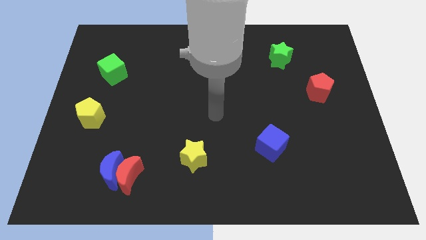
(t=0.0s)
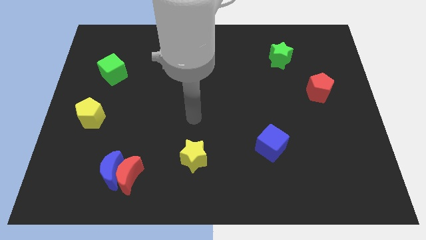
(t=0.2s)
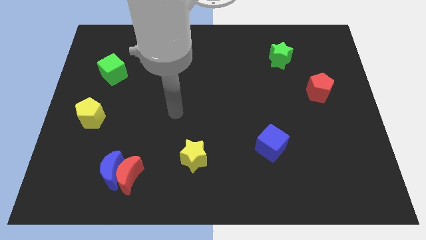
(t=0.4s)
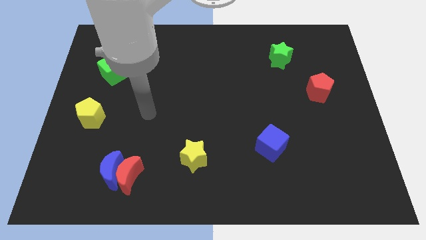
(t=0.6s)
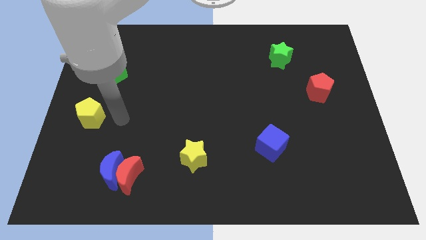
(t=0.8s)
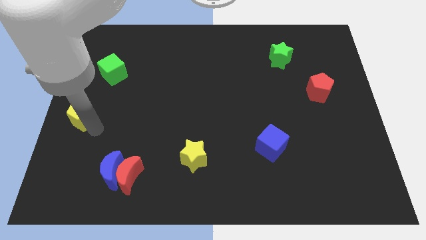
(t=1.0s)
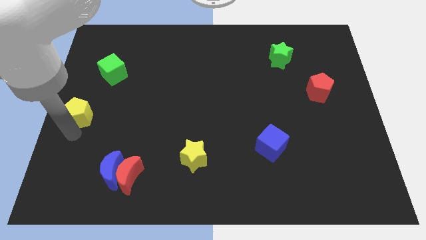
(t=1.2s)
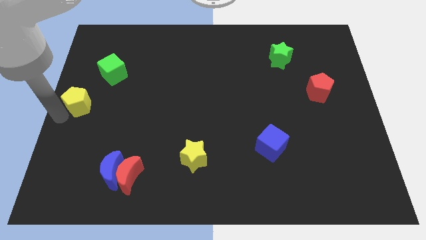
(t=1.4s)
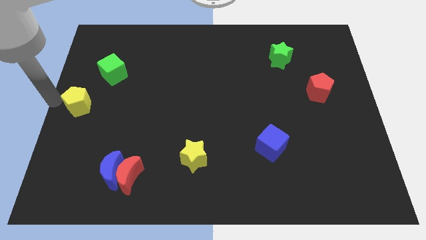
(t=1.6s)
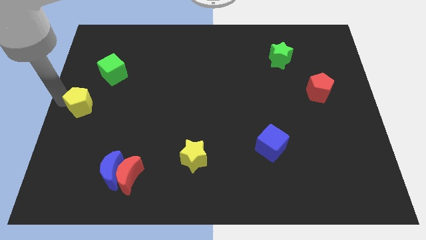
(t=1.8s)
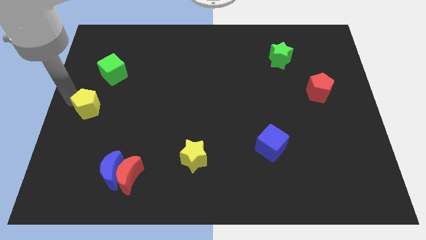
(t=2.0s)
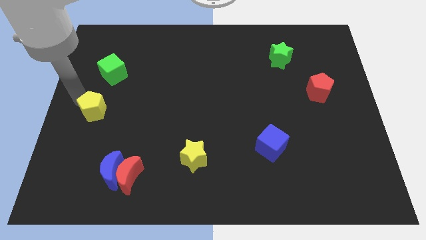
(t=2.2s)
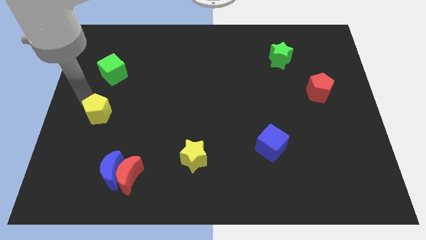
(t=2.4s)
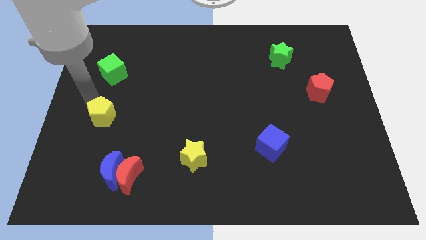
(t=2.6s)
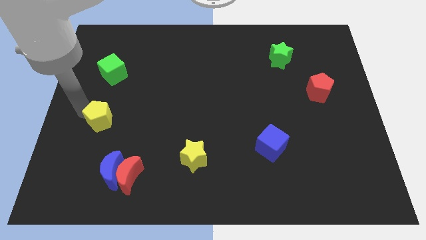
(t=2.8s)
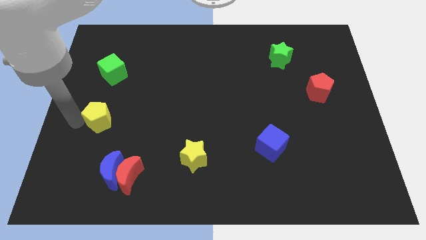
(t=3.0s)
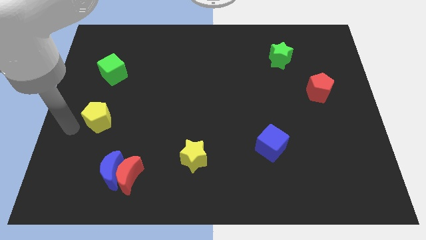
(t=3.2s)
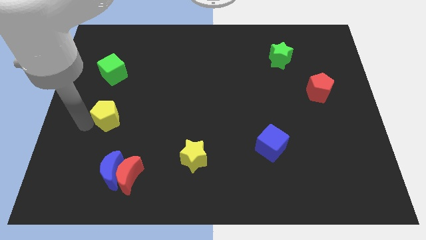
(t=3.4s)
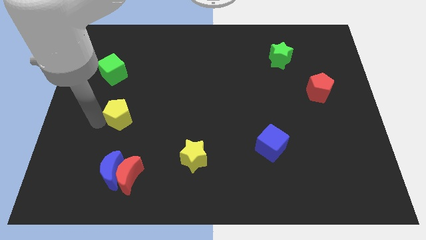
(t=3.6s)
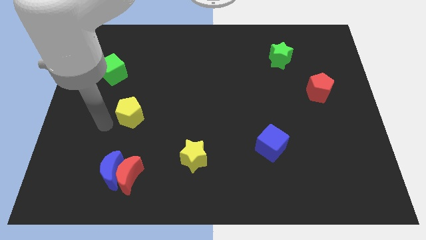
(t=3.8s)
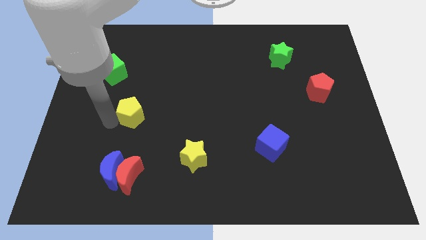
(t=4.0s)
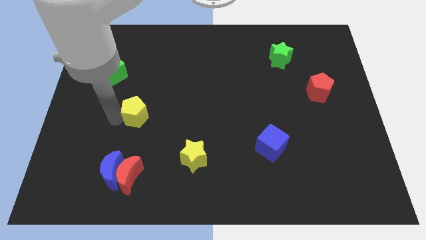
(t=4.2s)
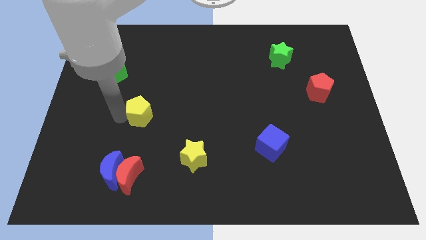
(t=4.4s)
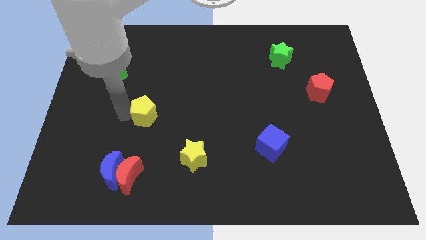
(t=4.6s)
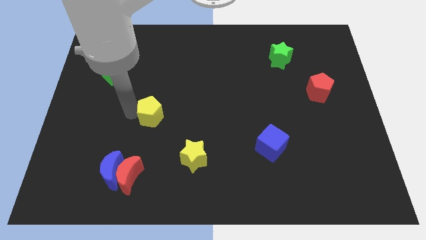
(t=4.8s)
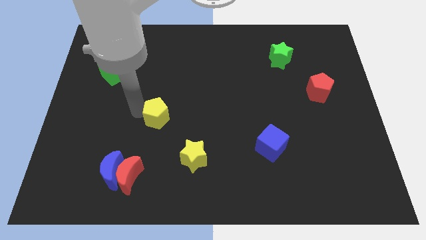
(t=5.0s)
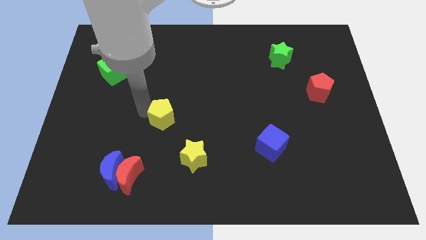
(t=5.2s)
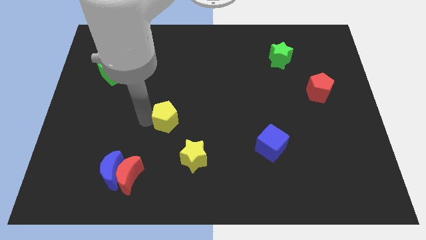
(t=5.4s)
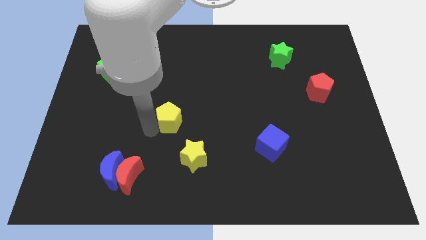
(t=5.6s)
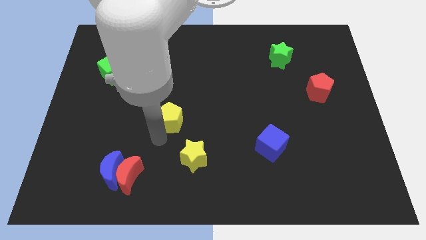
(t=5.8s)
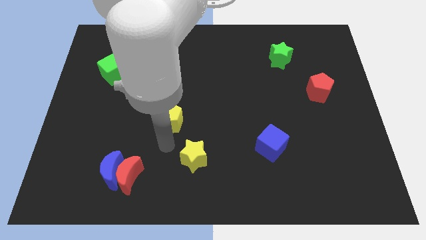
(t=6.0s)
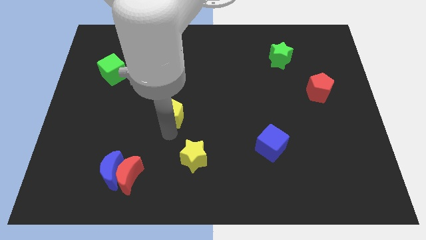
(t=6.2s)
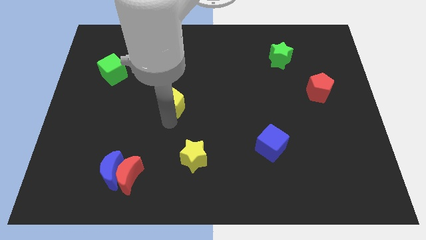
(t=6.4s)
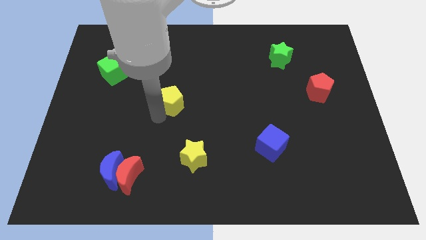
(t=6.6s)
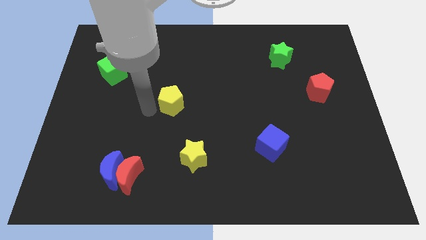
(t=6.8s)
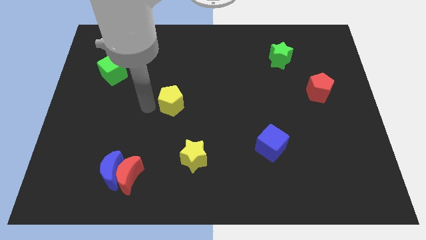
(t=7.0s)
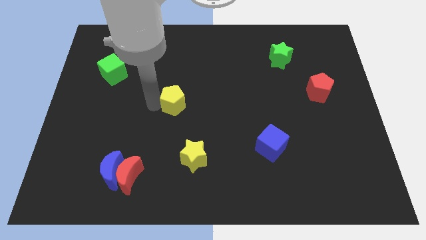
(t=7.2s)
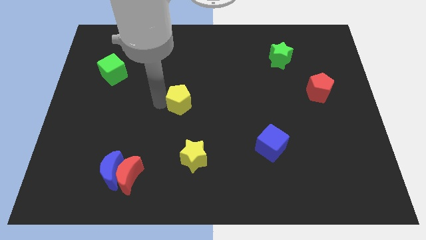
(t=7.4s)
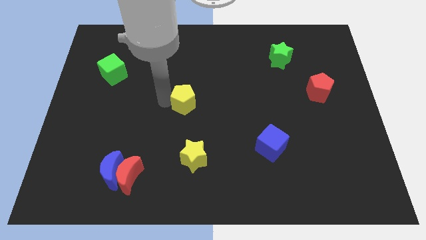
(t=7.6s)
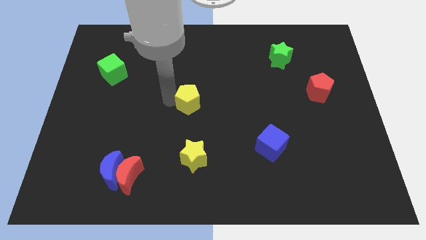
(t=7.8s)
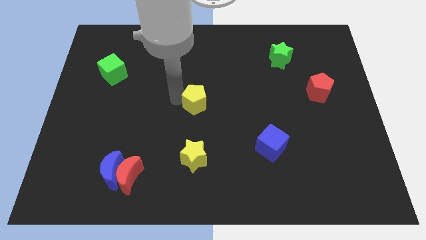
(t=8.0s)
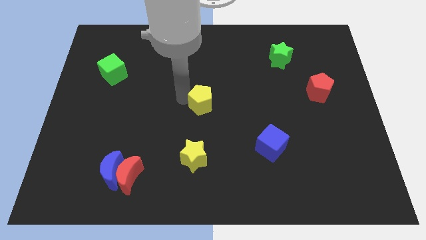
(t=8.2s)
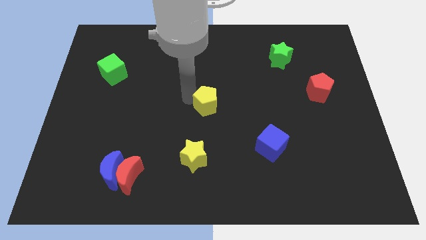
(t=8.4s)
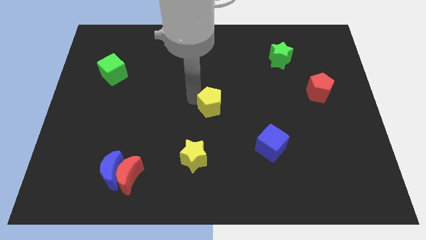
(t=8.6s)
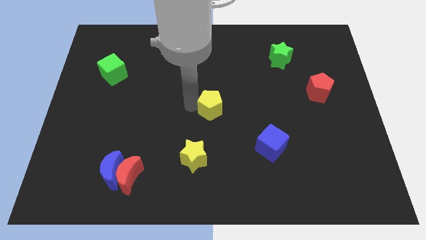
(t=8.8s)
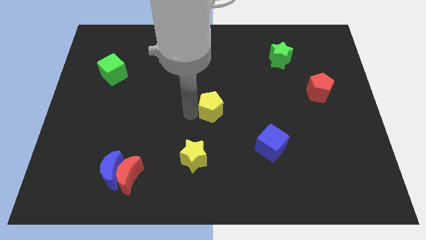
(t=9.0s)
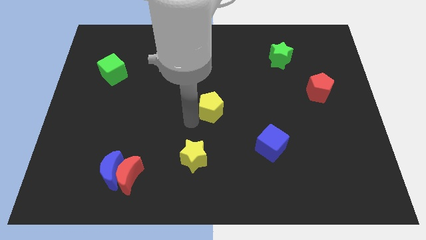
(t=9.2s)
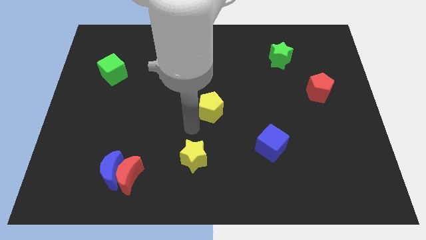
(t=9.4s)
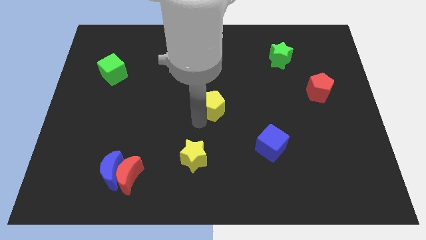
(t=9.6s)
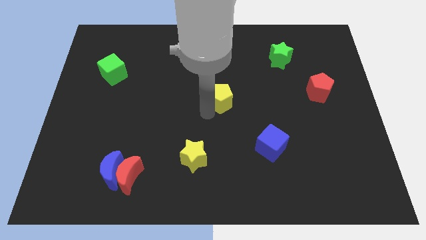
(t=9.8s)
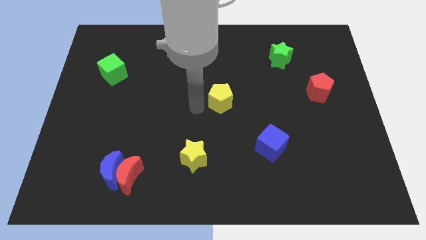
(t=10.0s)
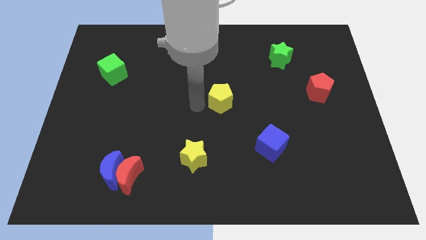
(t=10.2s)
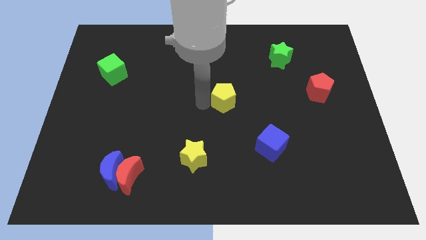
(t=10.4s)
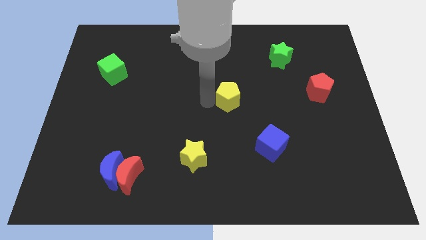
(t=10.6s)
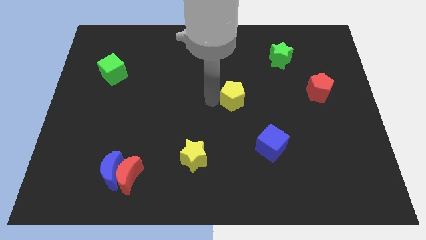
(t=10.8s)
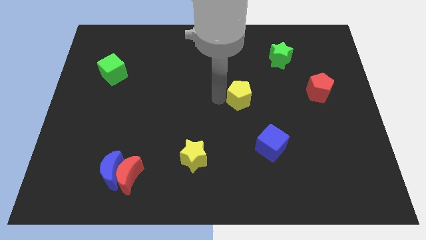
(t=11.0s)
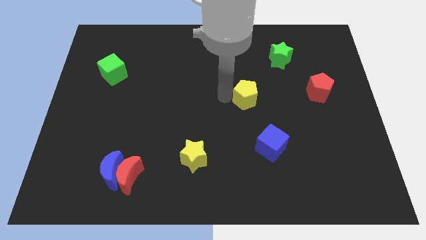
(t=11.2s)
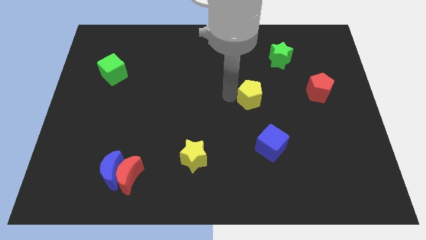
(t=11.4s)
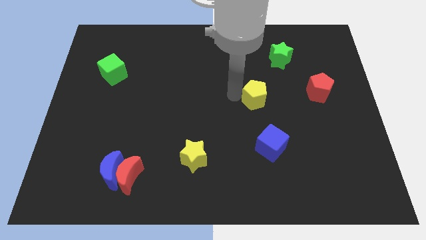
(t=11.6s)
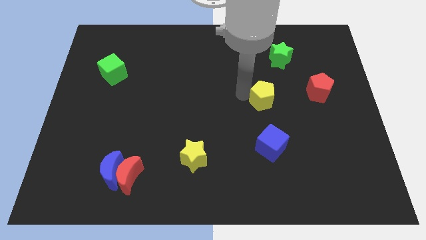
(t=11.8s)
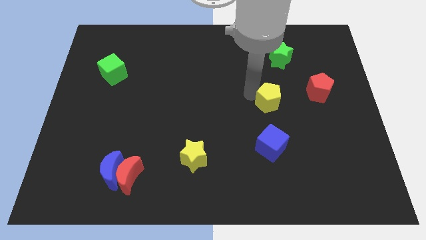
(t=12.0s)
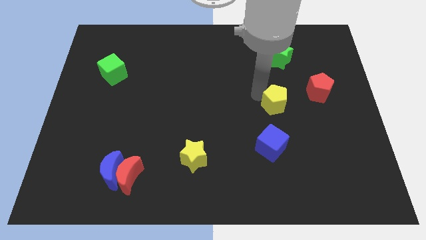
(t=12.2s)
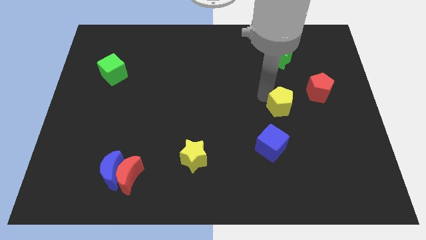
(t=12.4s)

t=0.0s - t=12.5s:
move the yellow pentagon to the bottom left of the red pentagon

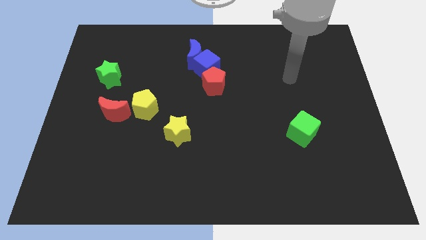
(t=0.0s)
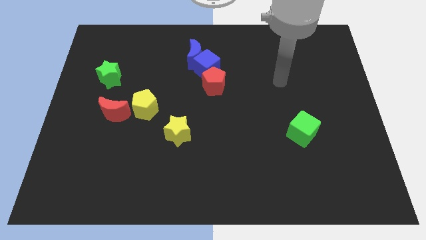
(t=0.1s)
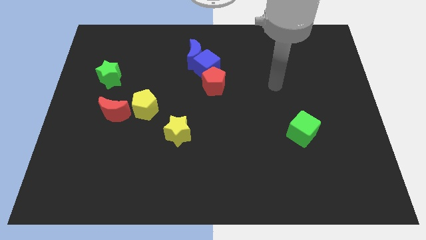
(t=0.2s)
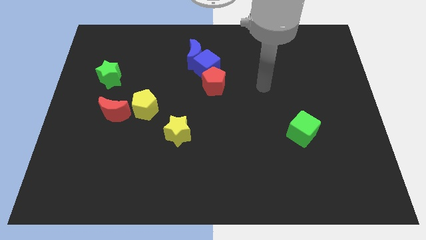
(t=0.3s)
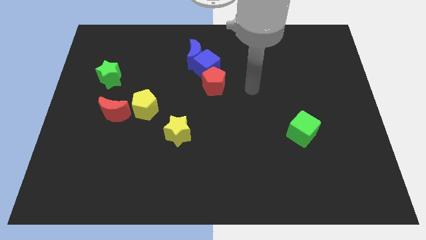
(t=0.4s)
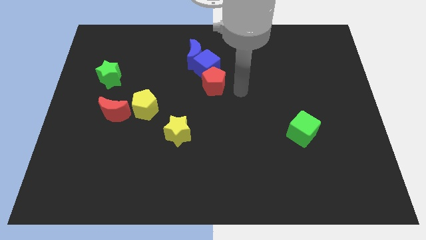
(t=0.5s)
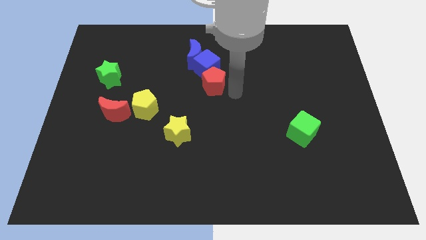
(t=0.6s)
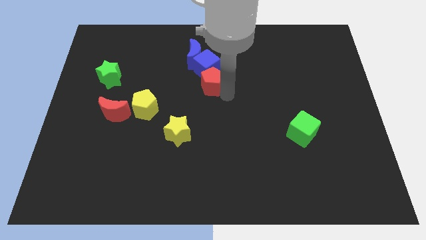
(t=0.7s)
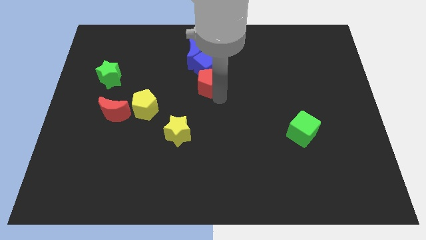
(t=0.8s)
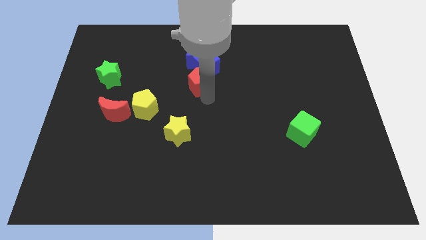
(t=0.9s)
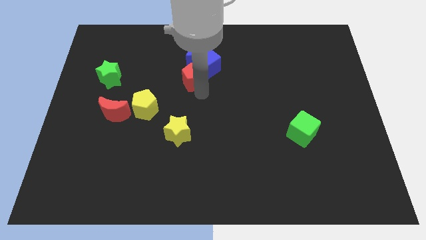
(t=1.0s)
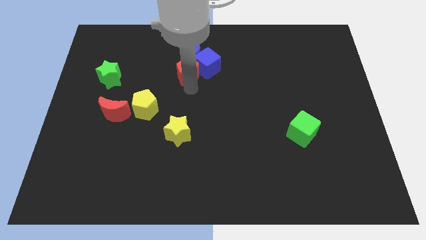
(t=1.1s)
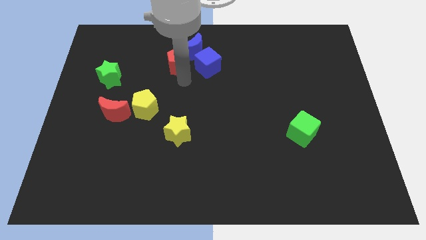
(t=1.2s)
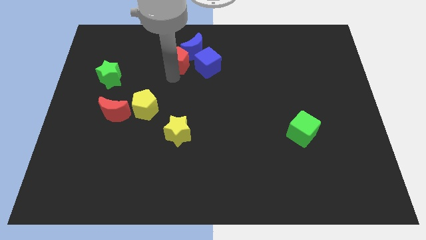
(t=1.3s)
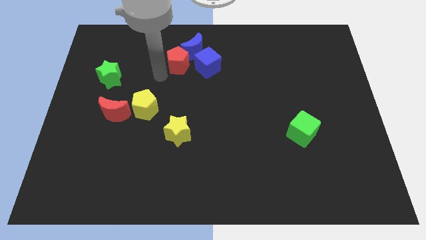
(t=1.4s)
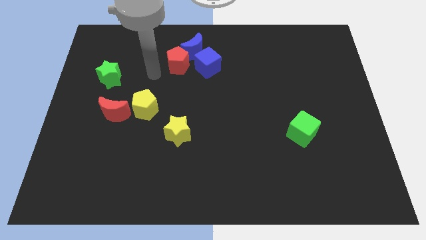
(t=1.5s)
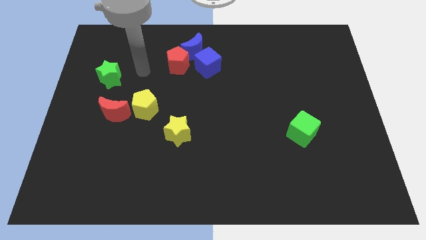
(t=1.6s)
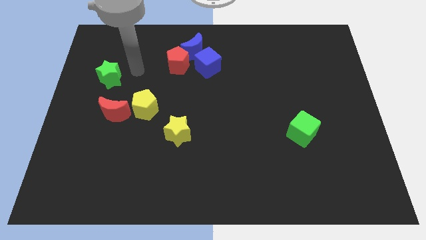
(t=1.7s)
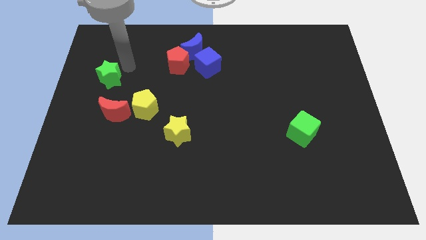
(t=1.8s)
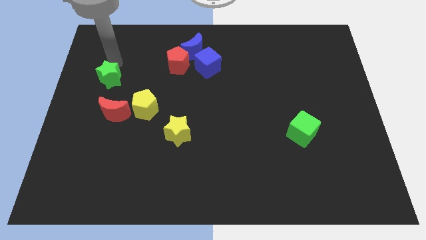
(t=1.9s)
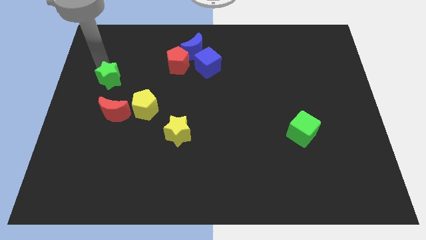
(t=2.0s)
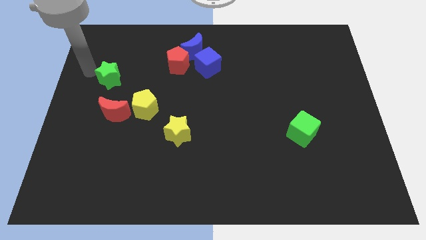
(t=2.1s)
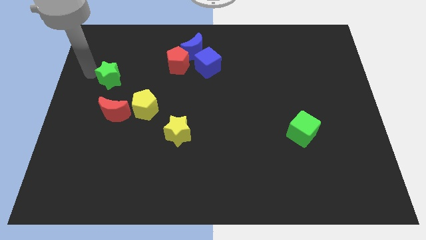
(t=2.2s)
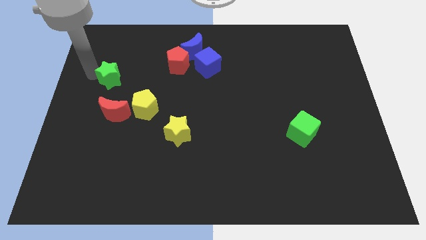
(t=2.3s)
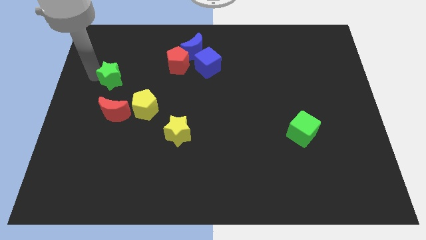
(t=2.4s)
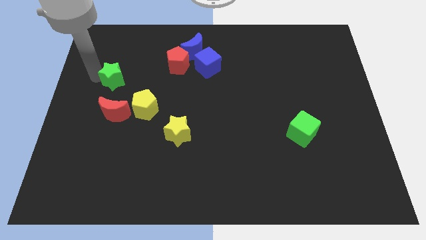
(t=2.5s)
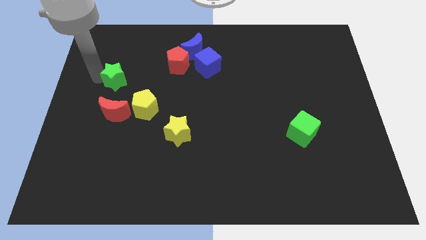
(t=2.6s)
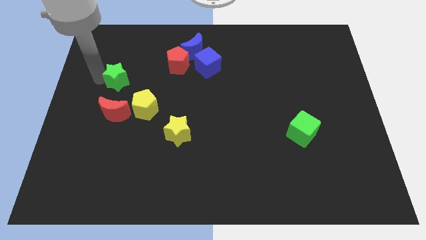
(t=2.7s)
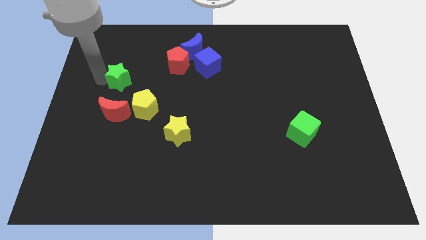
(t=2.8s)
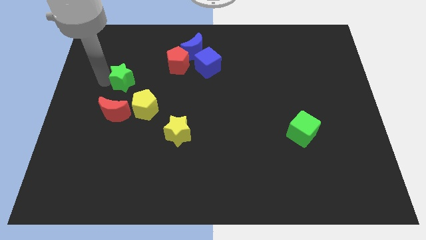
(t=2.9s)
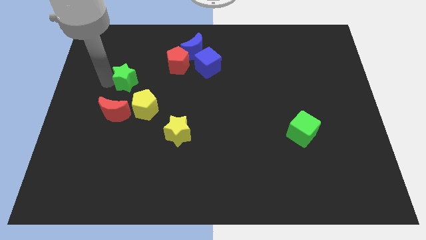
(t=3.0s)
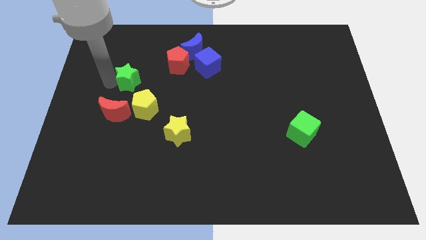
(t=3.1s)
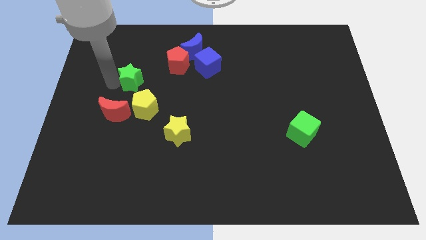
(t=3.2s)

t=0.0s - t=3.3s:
move the green star above the yellow pentagon
